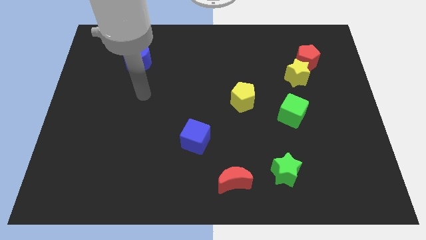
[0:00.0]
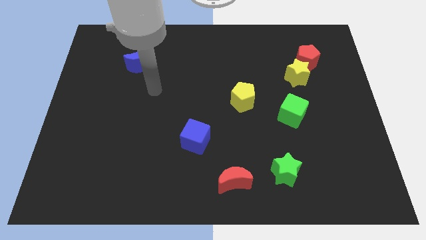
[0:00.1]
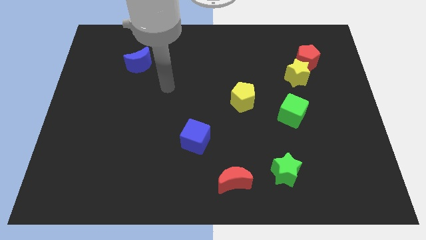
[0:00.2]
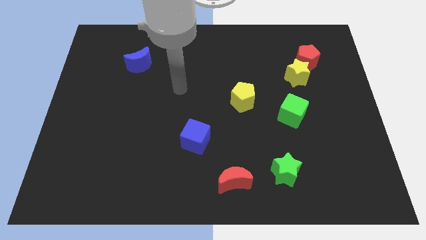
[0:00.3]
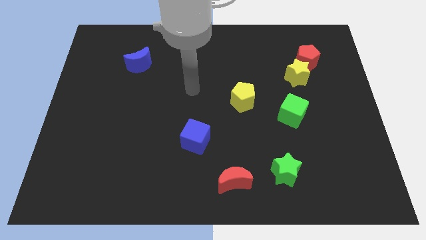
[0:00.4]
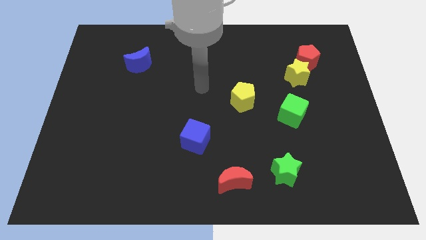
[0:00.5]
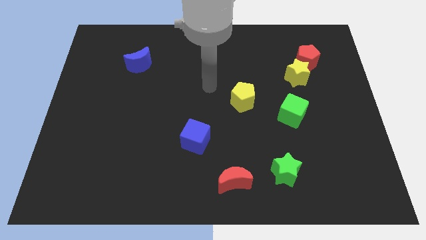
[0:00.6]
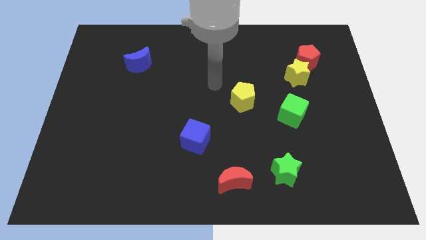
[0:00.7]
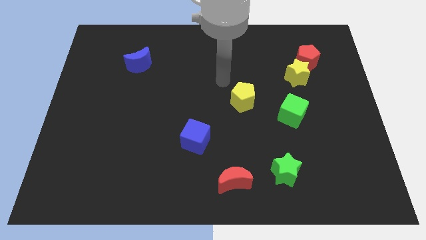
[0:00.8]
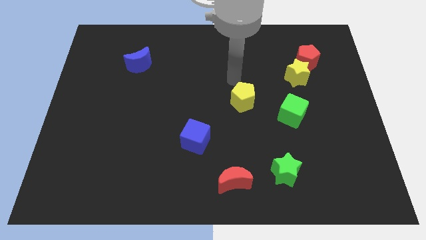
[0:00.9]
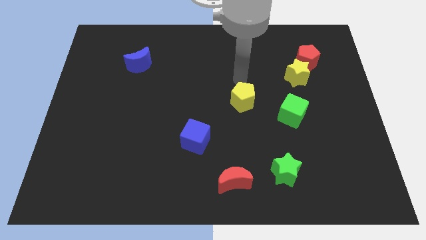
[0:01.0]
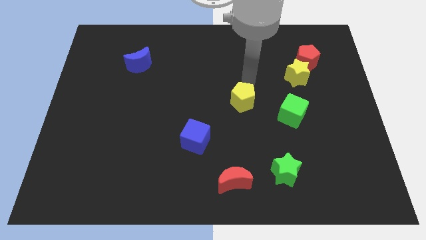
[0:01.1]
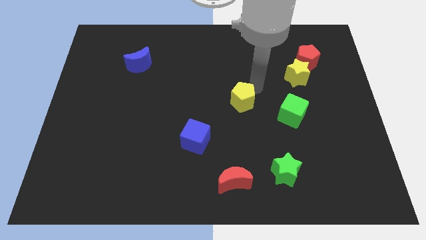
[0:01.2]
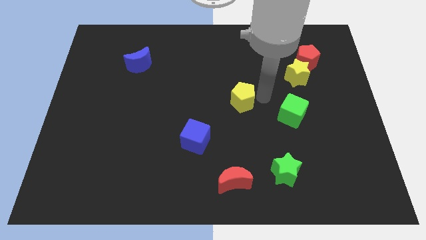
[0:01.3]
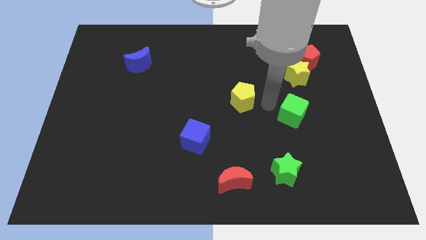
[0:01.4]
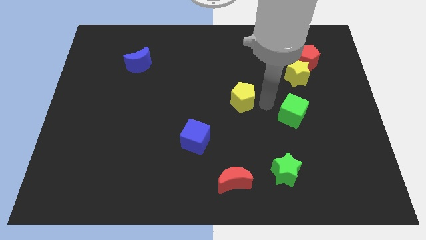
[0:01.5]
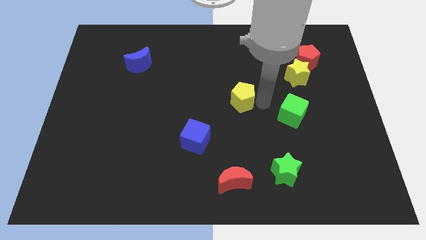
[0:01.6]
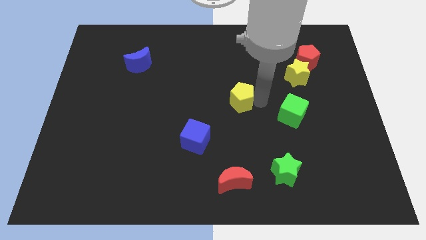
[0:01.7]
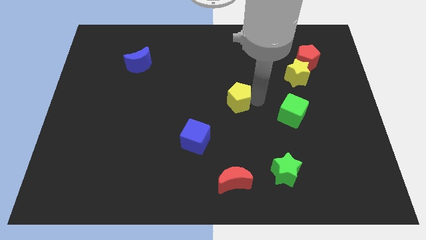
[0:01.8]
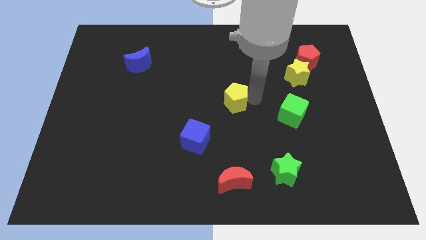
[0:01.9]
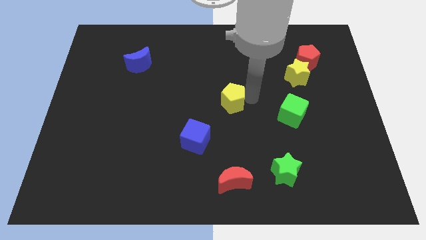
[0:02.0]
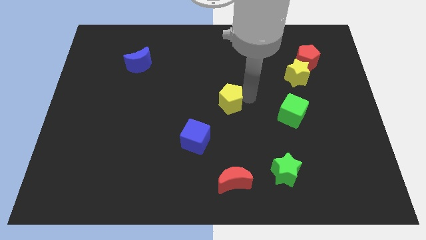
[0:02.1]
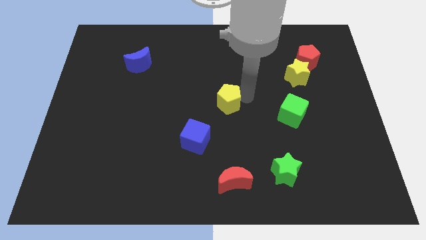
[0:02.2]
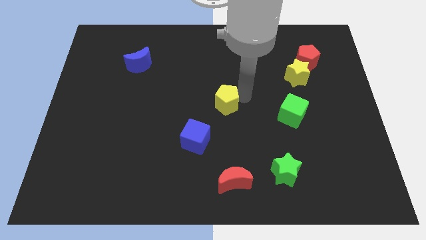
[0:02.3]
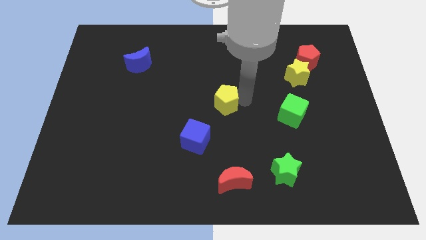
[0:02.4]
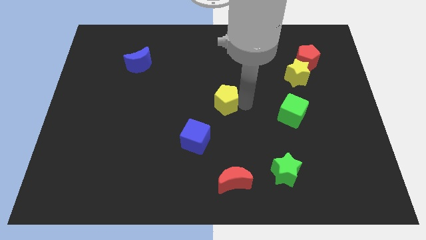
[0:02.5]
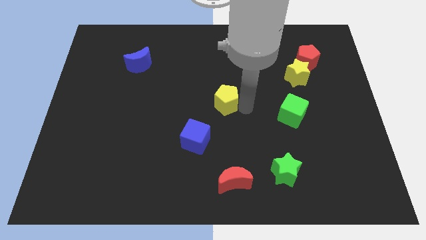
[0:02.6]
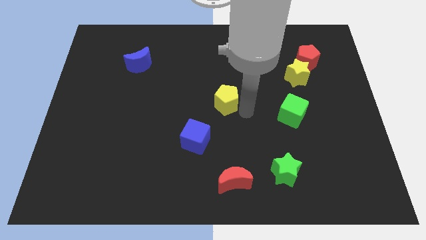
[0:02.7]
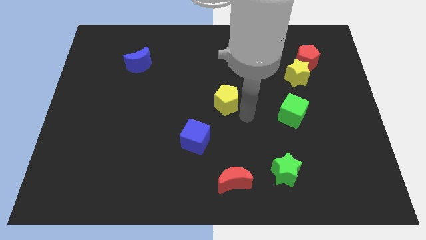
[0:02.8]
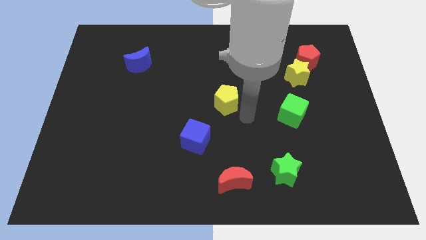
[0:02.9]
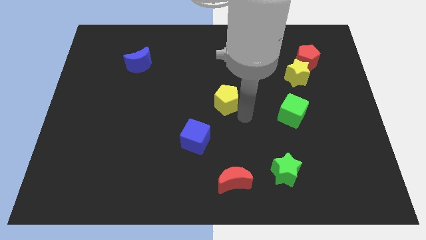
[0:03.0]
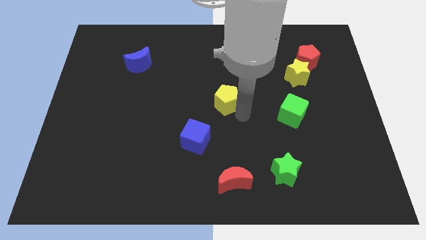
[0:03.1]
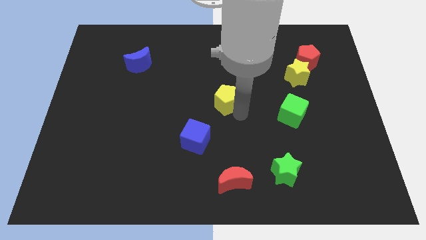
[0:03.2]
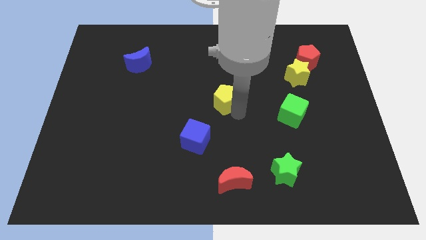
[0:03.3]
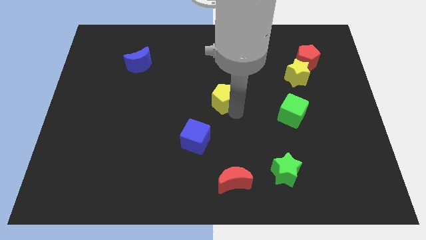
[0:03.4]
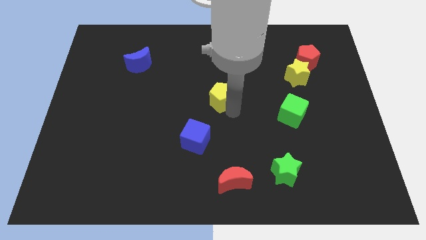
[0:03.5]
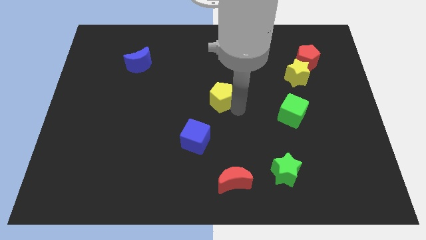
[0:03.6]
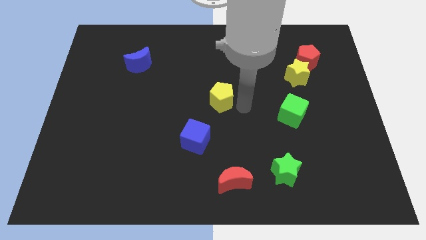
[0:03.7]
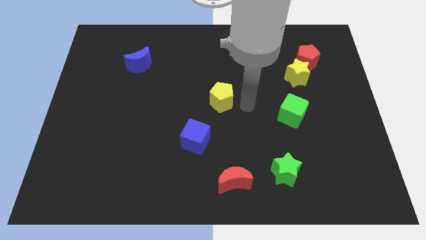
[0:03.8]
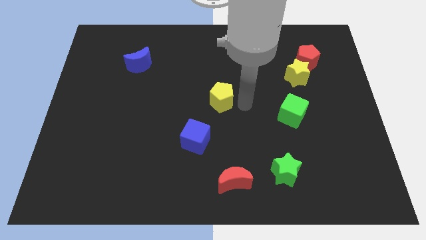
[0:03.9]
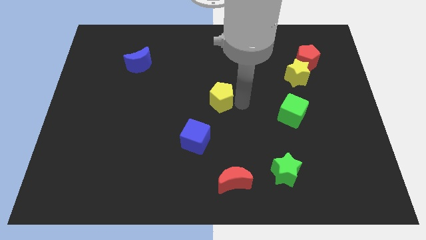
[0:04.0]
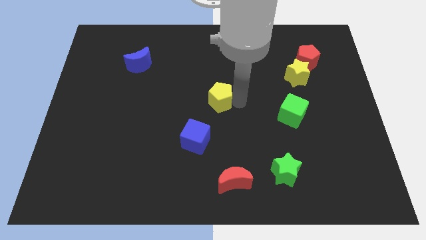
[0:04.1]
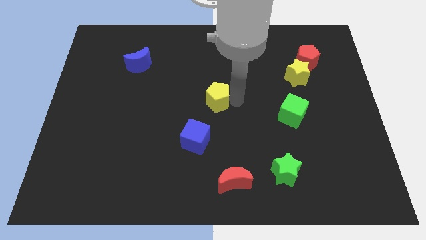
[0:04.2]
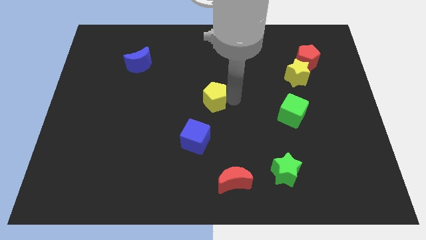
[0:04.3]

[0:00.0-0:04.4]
slide the yellow pentagon to the left slightly

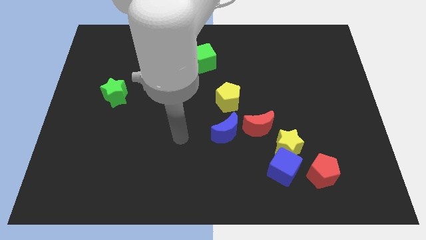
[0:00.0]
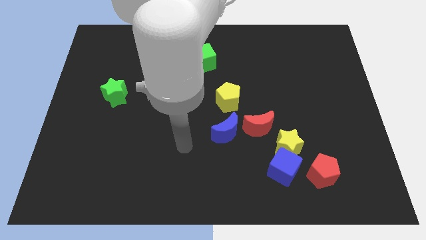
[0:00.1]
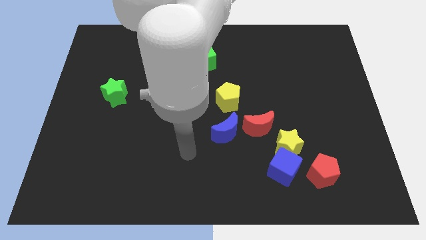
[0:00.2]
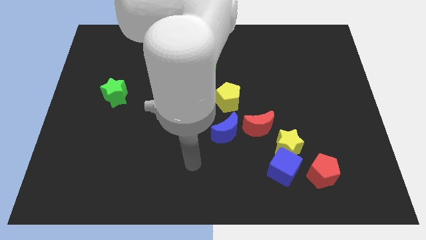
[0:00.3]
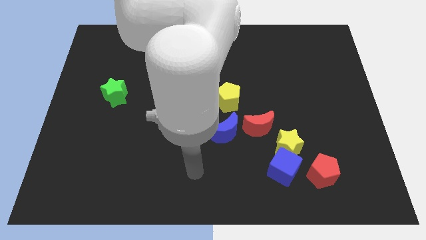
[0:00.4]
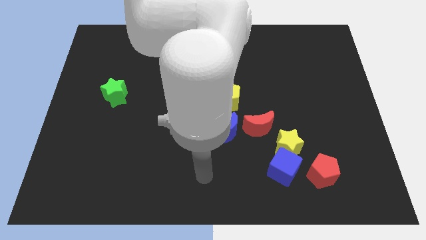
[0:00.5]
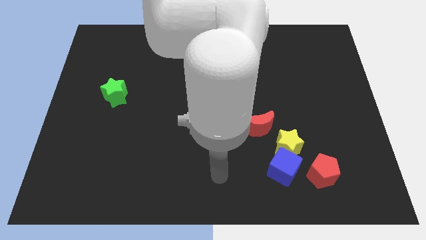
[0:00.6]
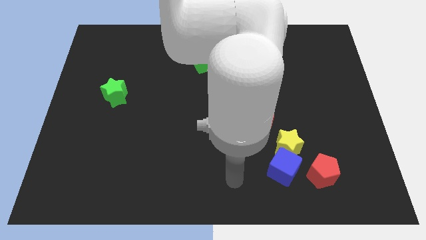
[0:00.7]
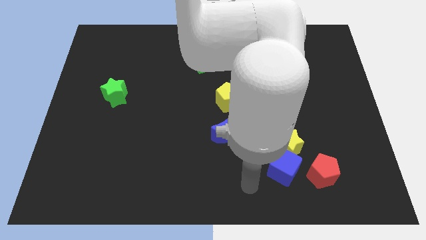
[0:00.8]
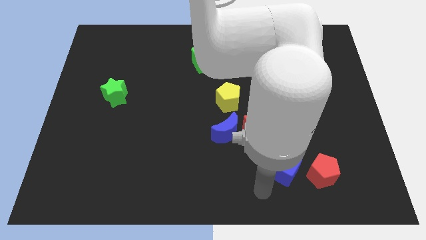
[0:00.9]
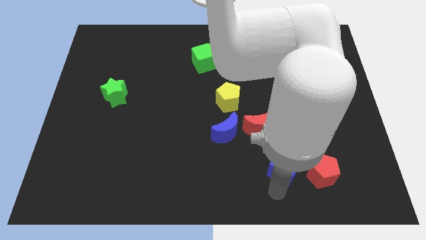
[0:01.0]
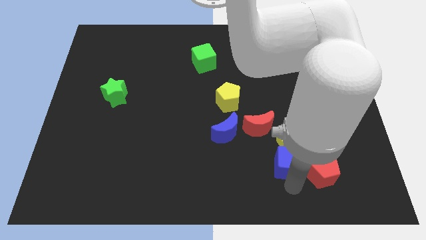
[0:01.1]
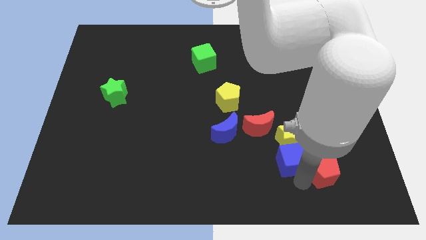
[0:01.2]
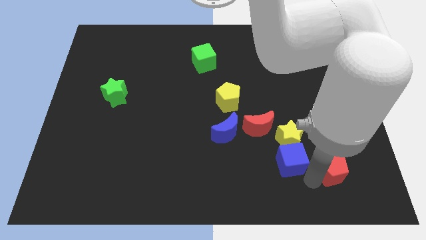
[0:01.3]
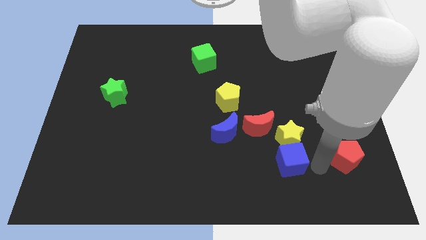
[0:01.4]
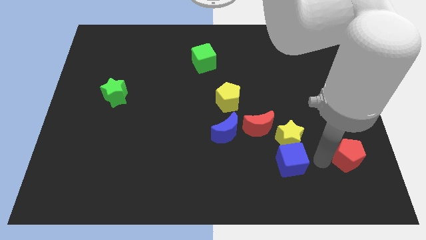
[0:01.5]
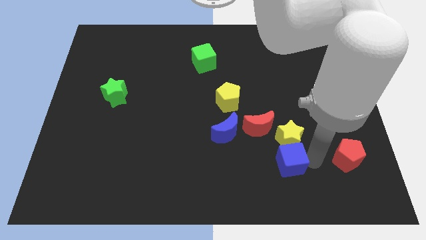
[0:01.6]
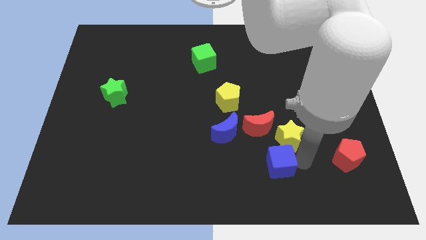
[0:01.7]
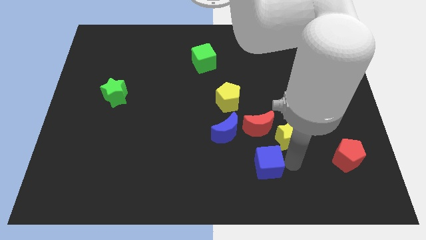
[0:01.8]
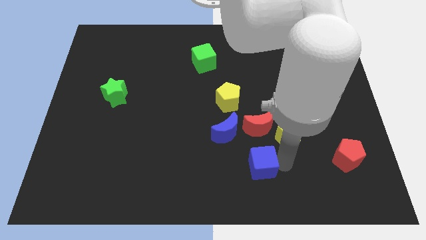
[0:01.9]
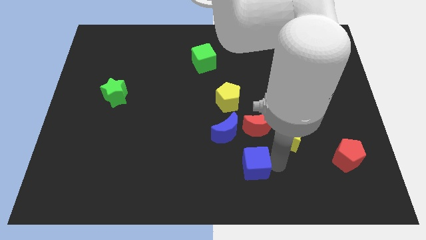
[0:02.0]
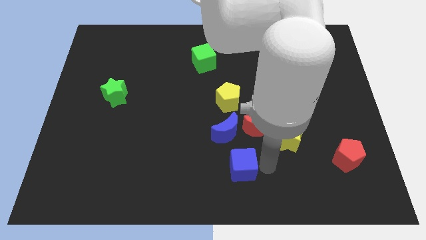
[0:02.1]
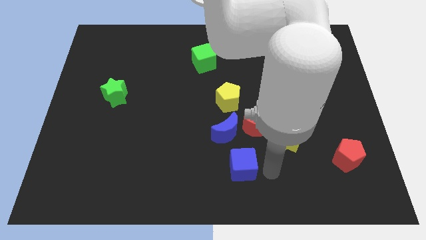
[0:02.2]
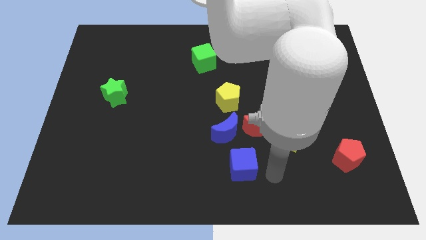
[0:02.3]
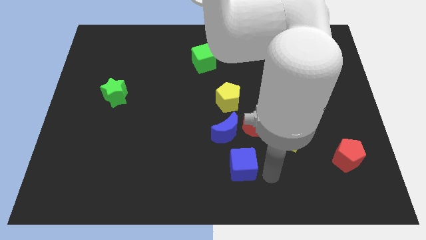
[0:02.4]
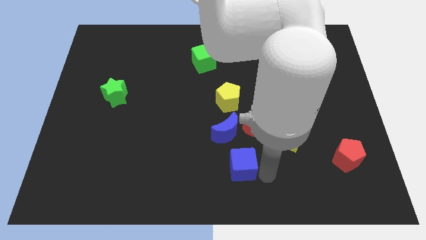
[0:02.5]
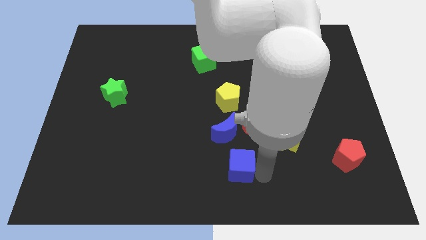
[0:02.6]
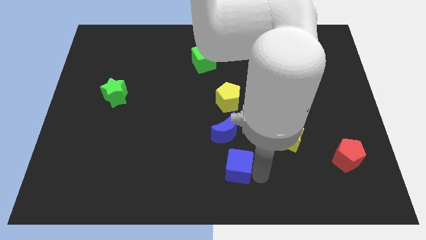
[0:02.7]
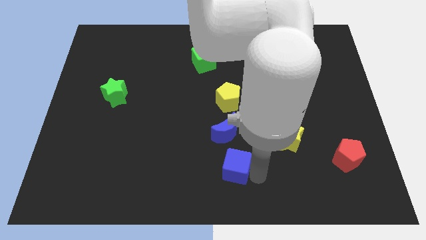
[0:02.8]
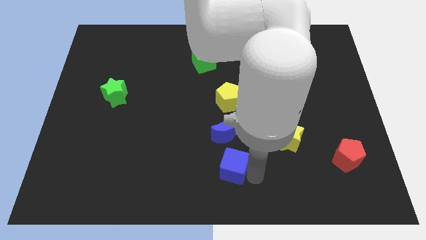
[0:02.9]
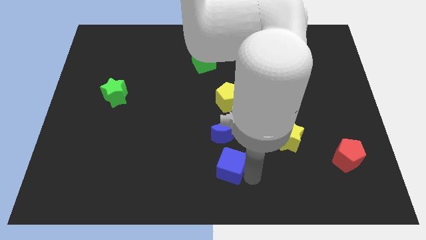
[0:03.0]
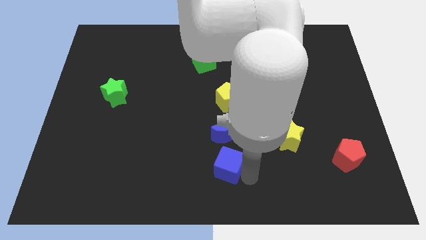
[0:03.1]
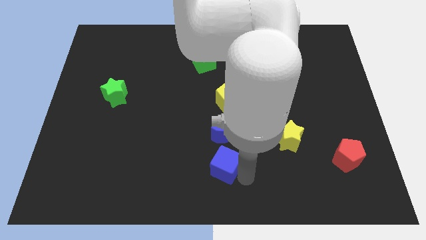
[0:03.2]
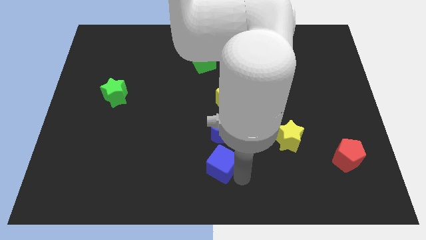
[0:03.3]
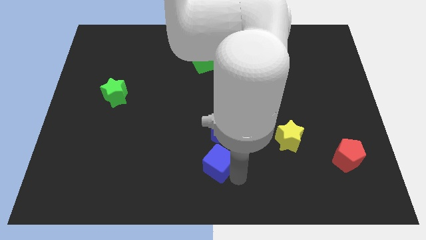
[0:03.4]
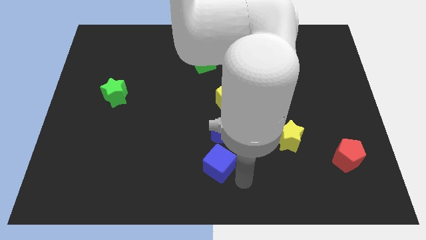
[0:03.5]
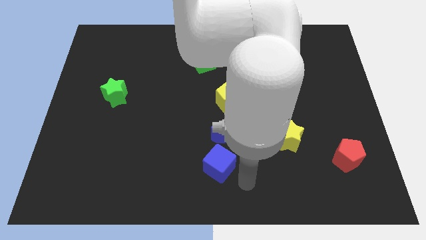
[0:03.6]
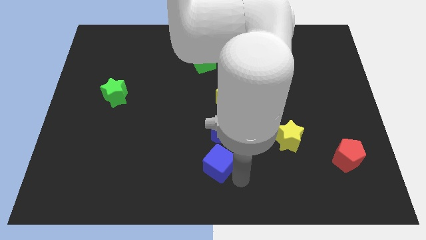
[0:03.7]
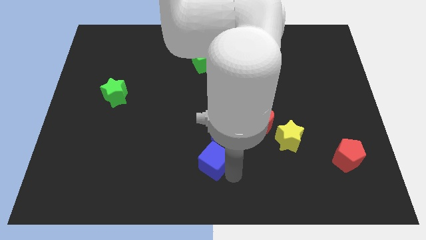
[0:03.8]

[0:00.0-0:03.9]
push the blue cube up and left diagonally somewhat
